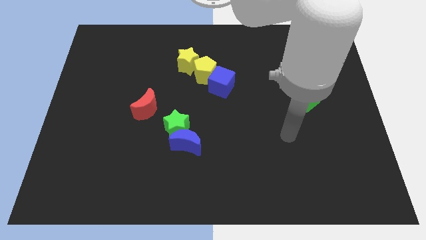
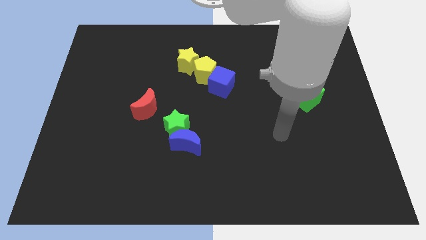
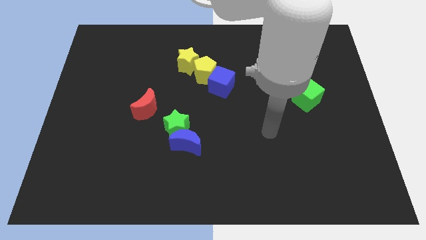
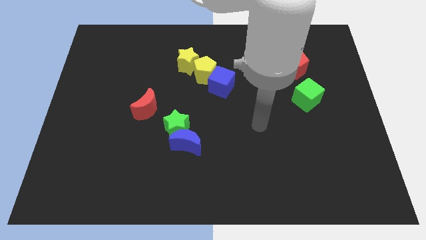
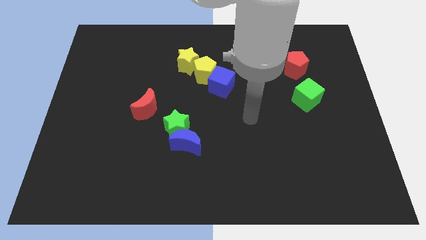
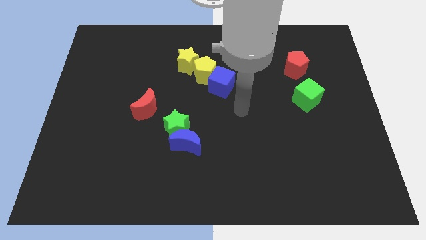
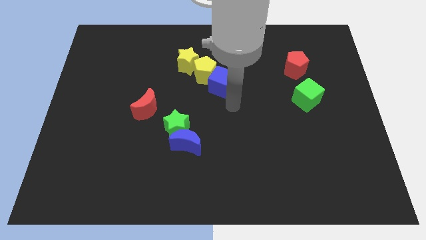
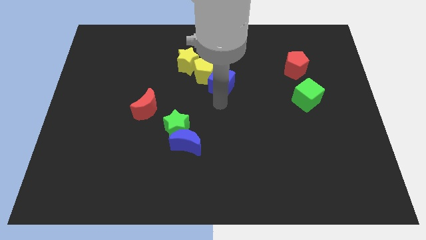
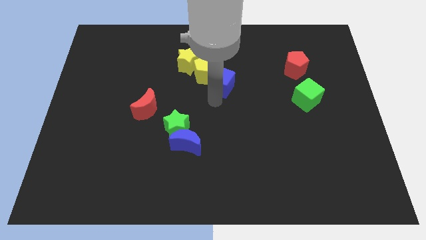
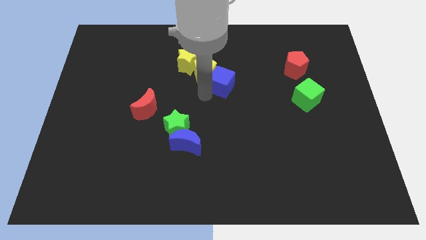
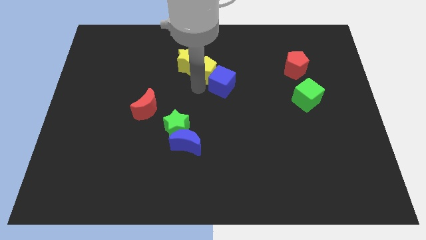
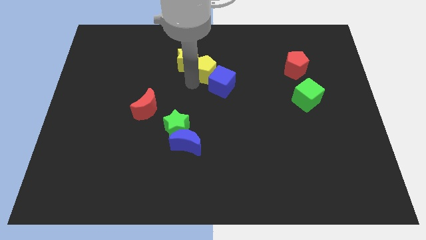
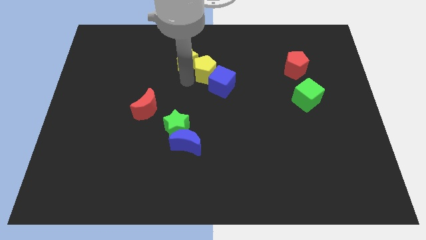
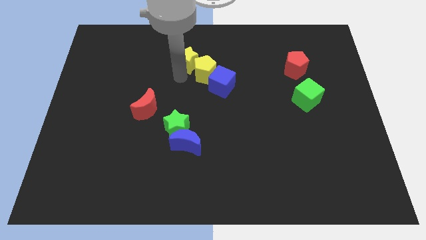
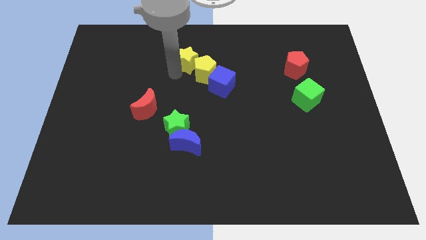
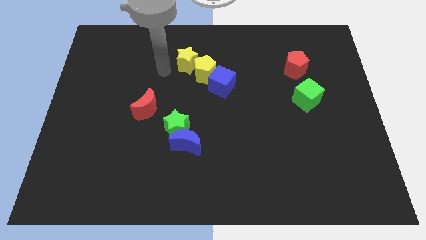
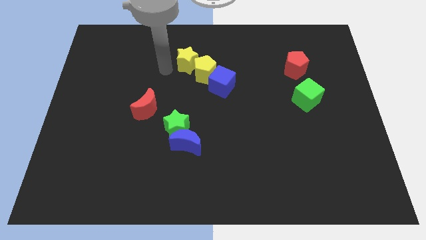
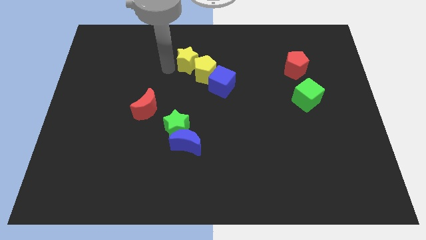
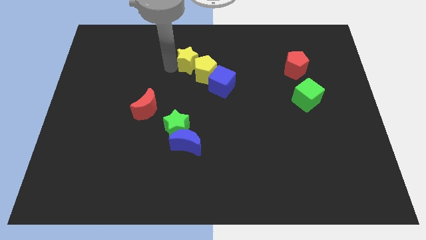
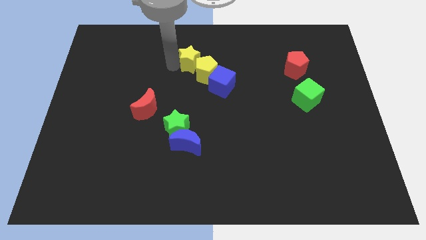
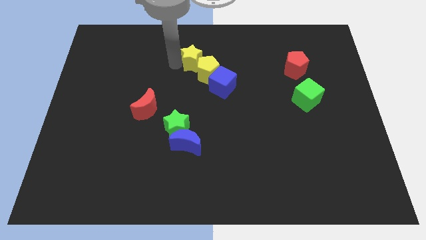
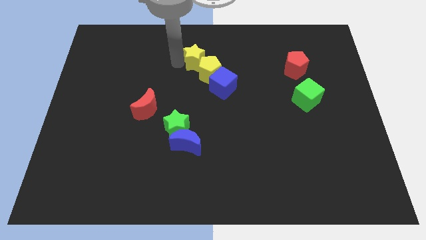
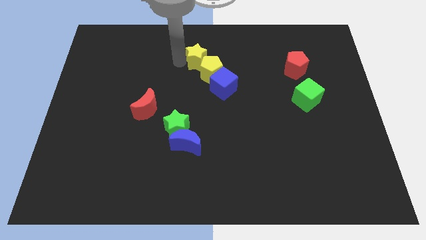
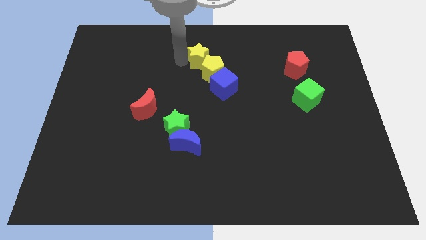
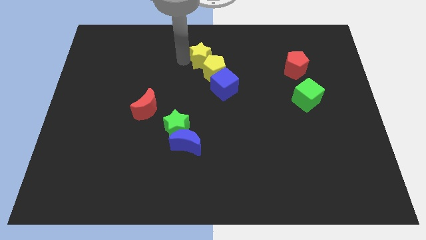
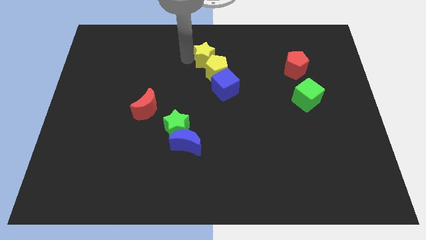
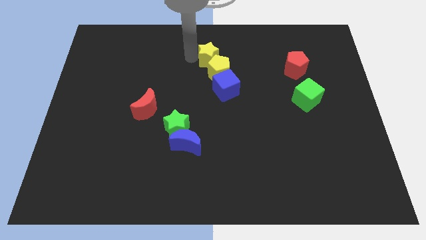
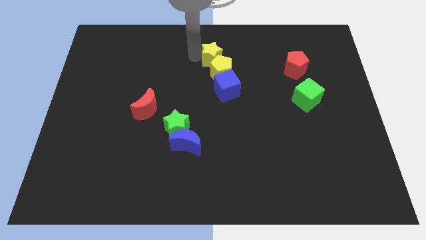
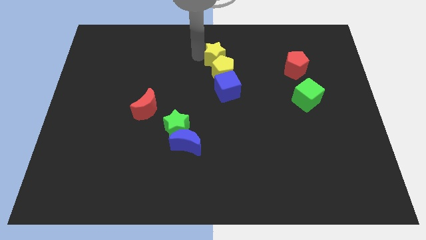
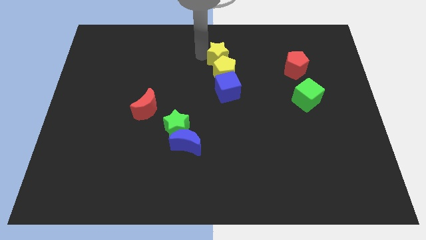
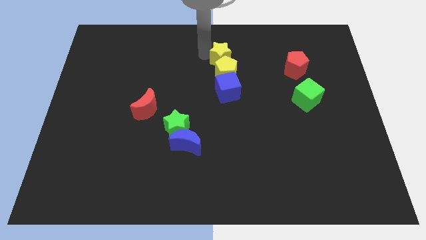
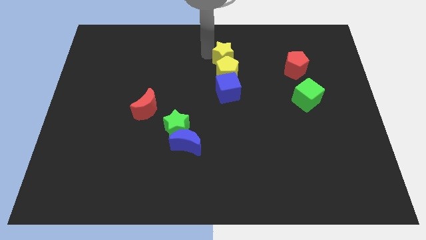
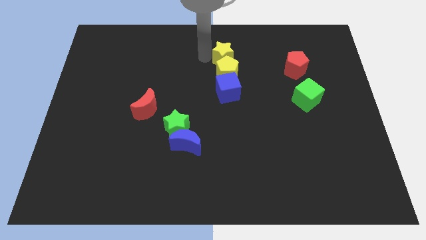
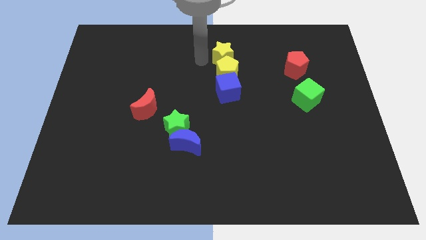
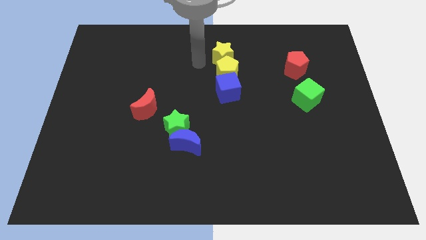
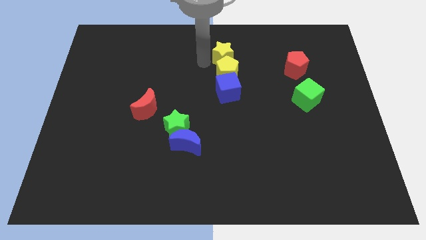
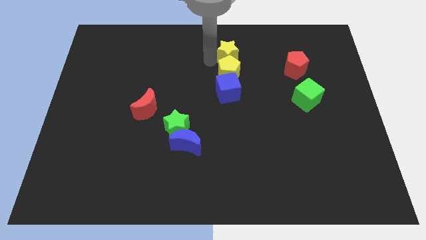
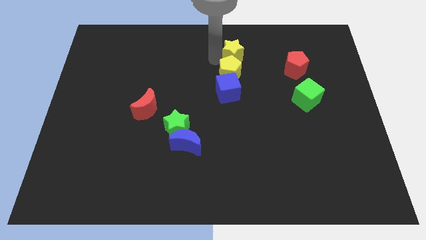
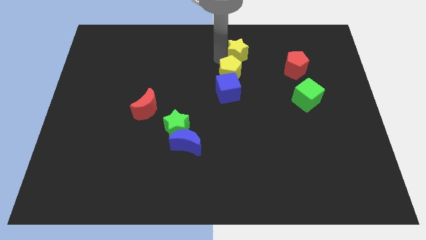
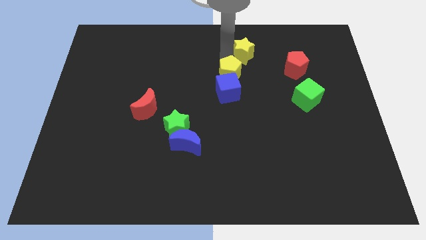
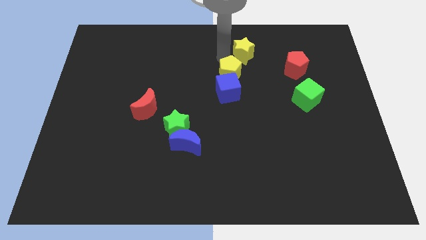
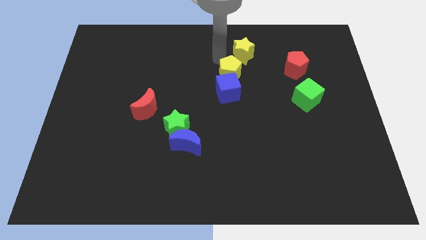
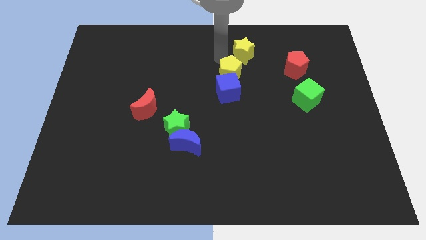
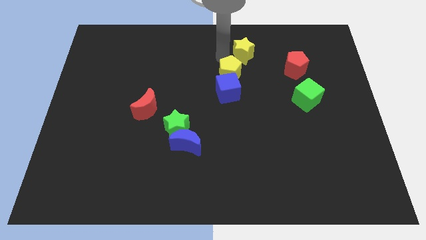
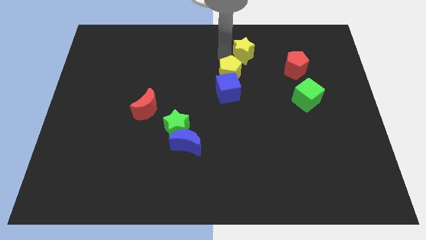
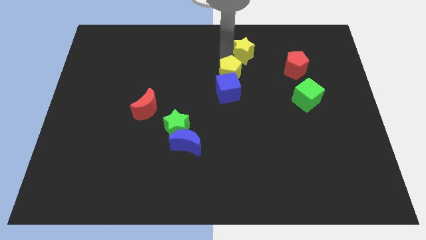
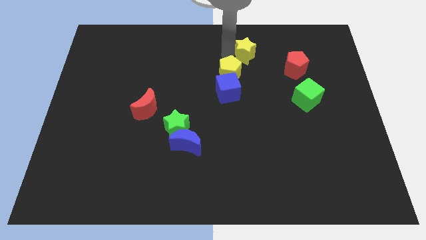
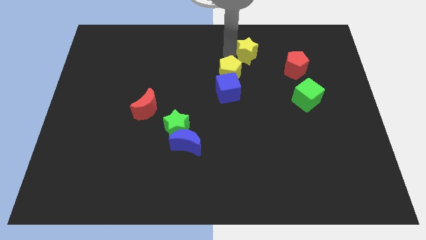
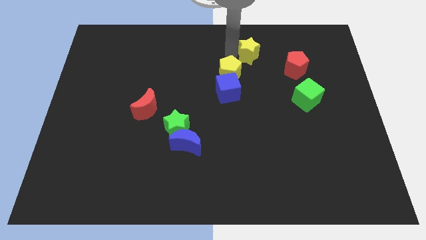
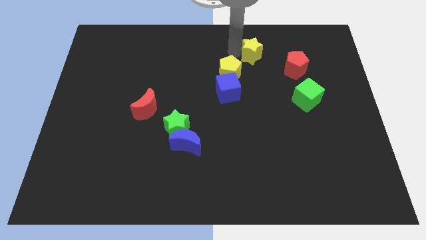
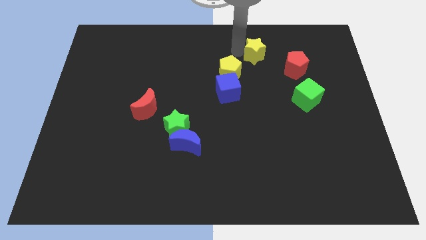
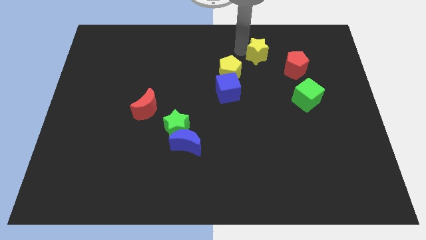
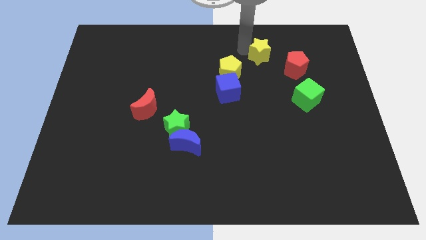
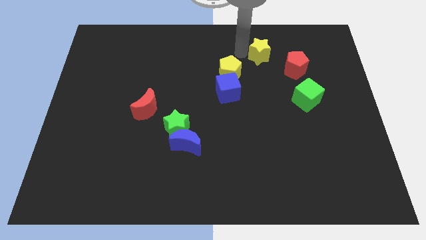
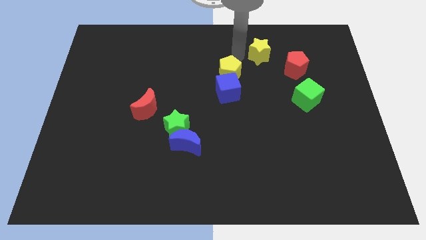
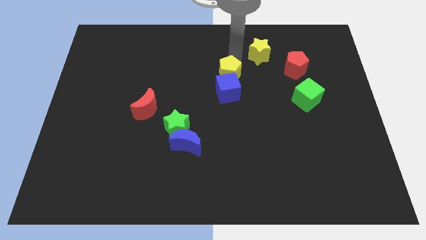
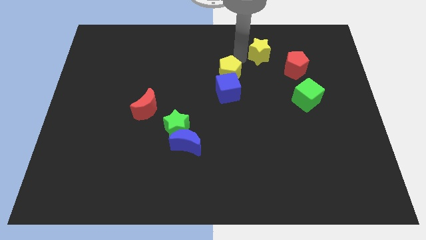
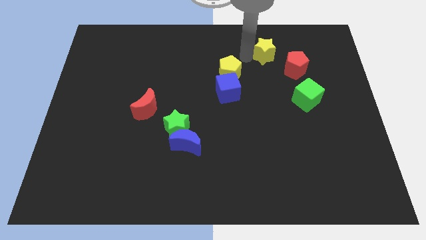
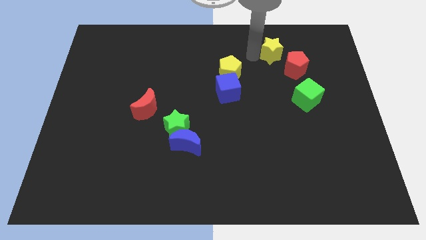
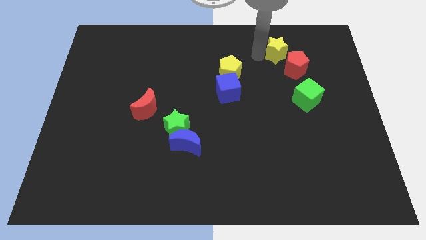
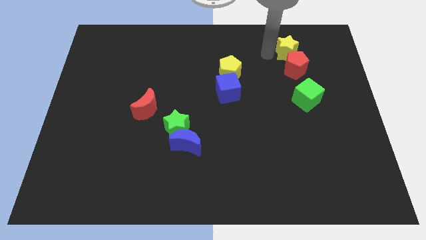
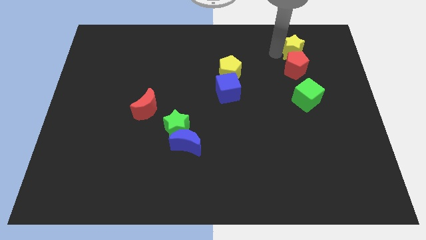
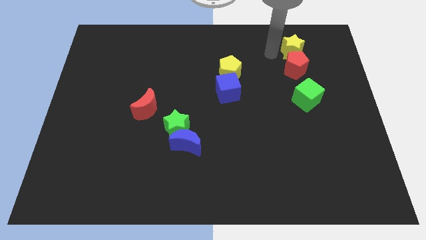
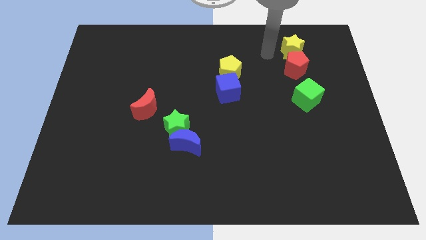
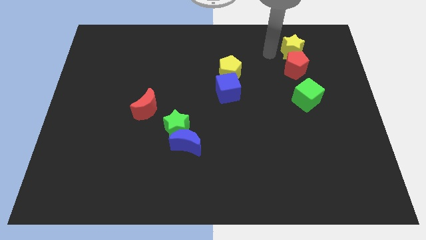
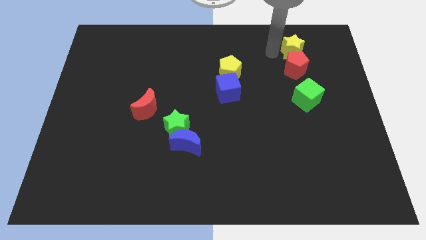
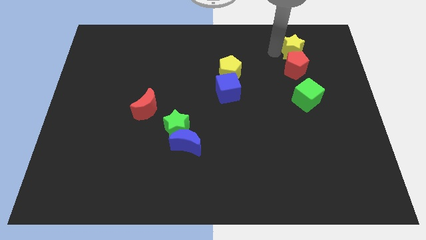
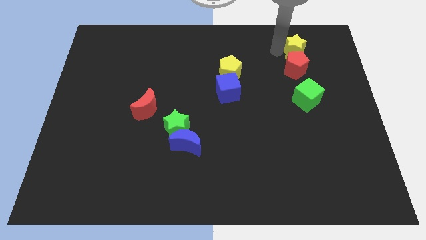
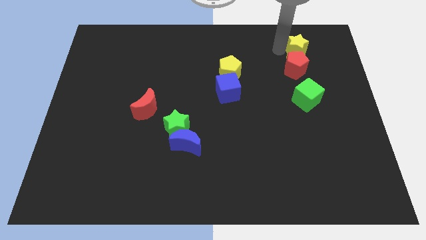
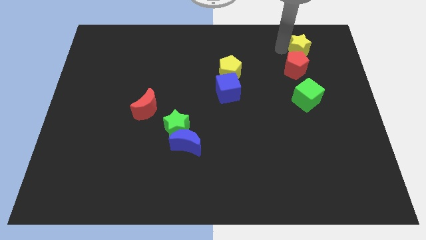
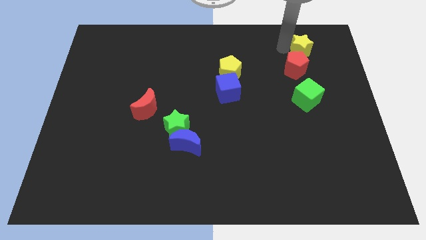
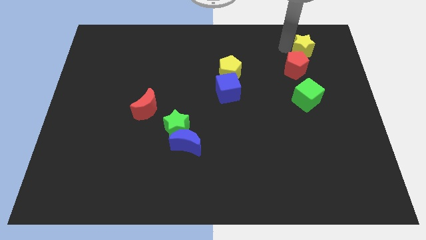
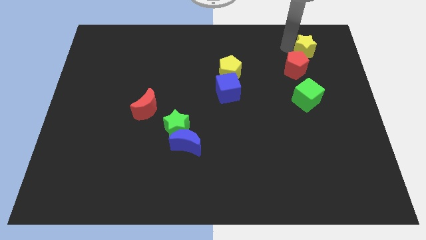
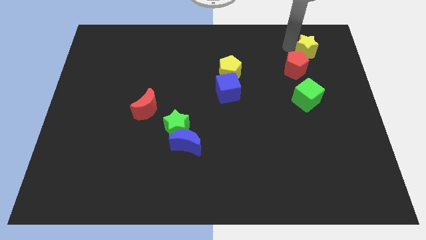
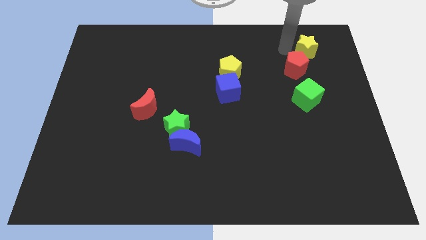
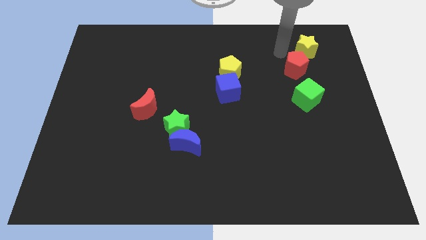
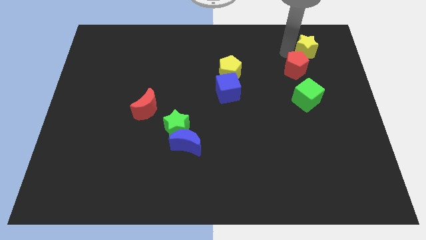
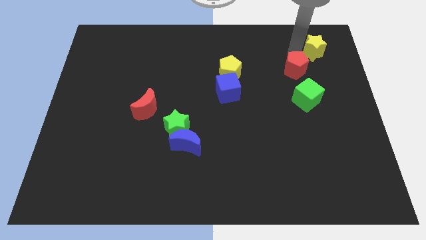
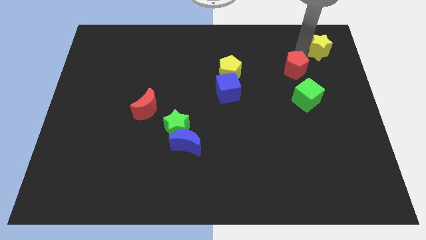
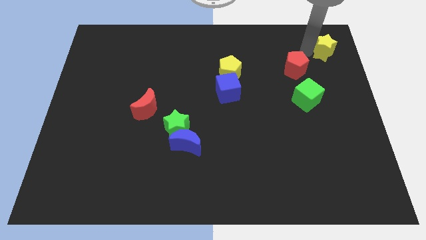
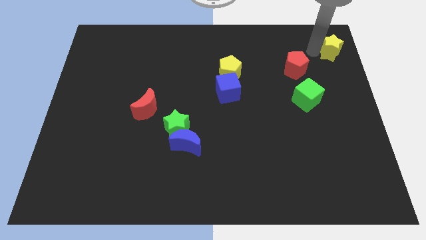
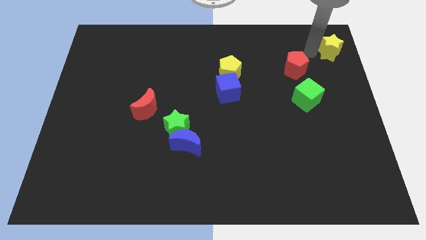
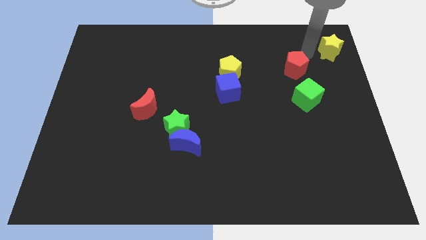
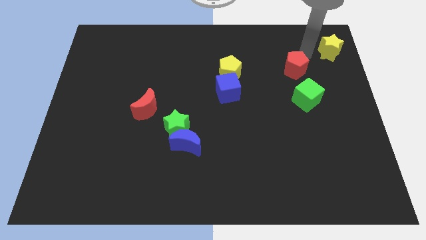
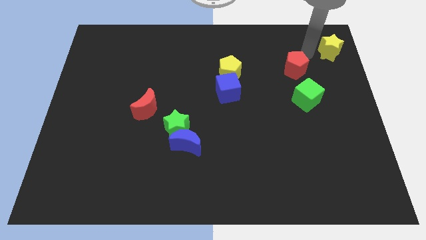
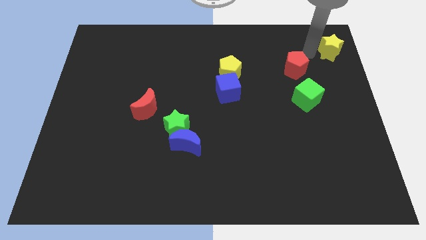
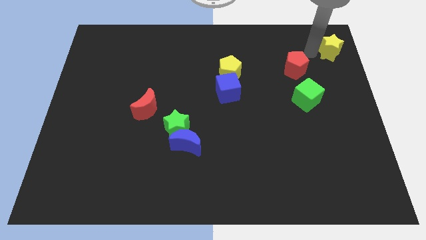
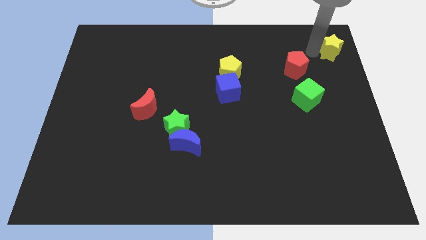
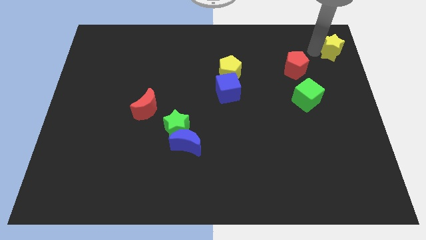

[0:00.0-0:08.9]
slide the yellow star to the top right
